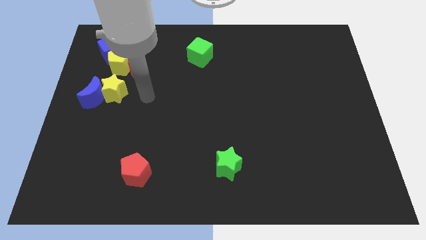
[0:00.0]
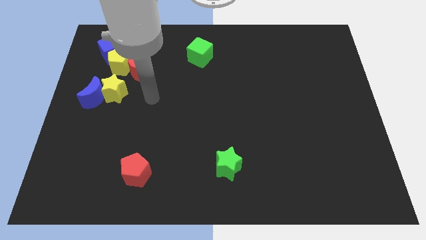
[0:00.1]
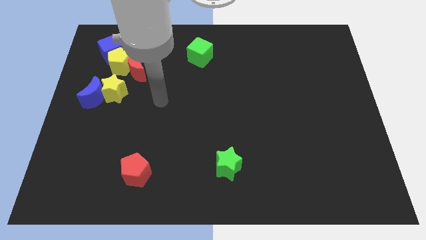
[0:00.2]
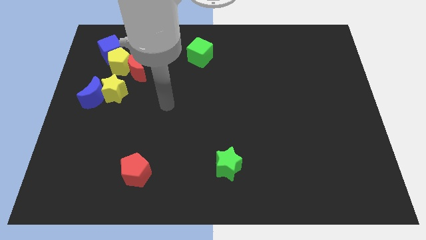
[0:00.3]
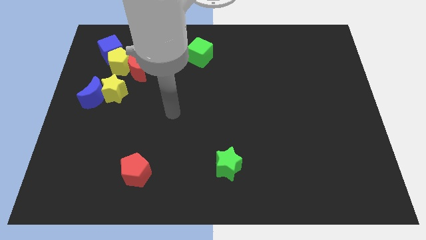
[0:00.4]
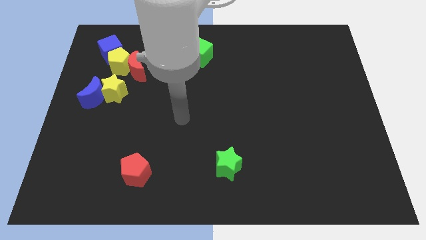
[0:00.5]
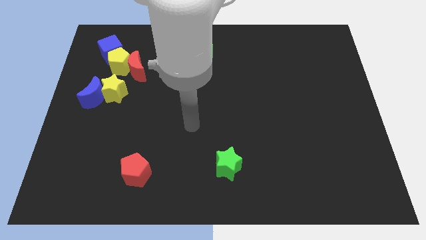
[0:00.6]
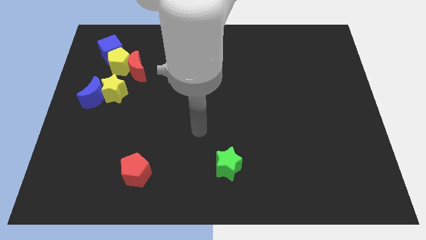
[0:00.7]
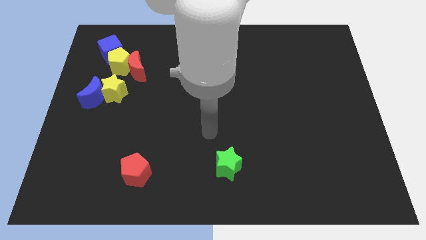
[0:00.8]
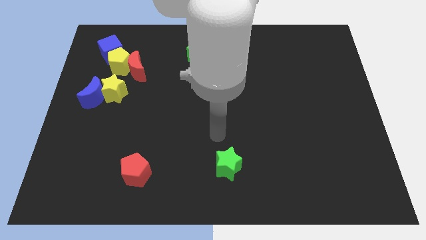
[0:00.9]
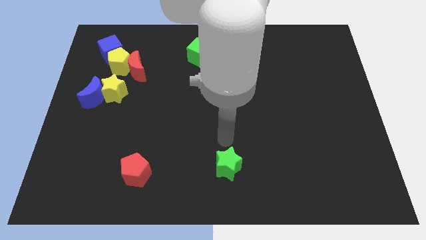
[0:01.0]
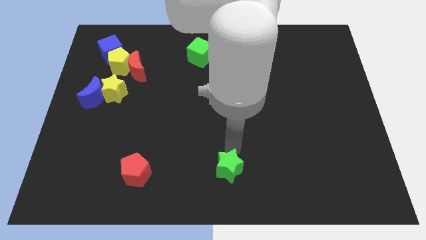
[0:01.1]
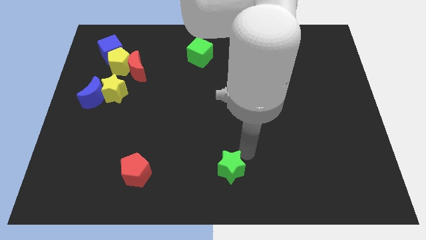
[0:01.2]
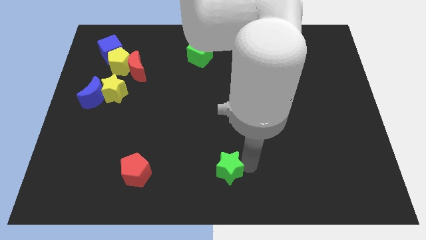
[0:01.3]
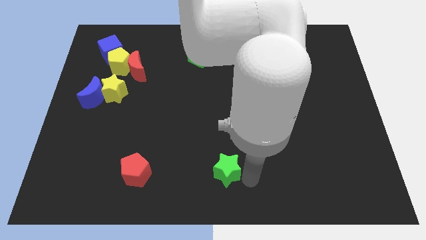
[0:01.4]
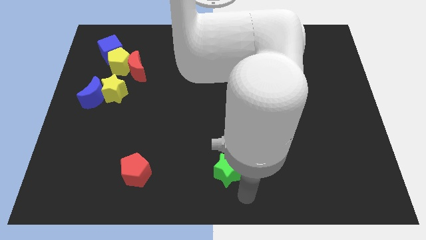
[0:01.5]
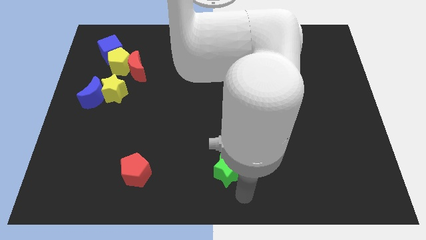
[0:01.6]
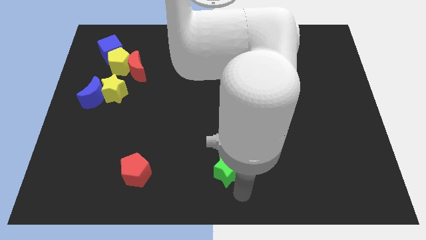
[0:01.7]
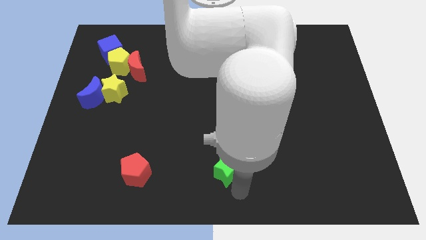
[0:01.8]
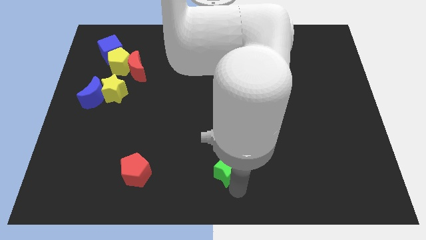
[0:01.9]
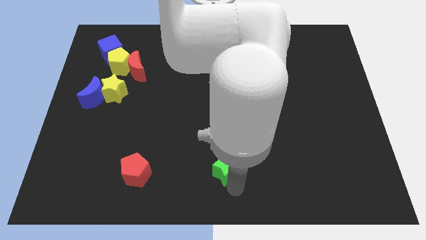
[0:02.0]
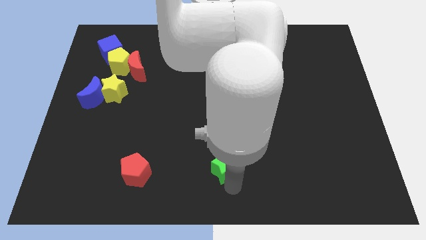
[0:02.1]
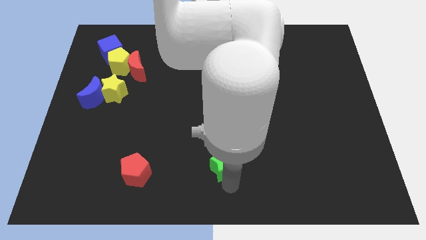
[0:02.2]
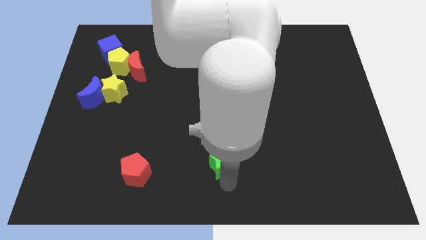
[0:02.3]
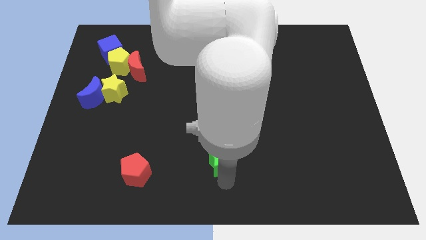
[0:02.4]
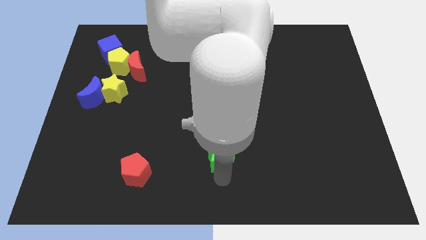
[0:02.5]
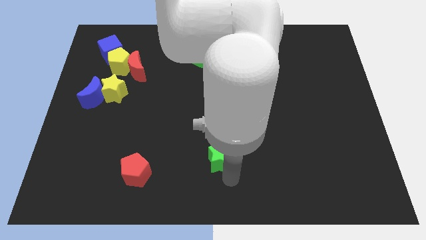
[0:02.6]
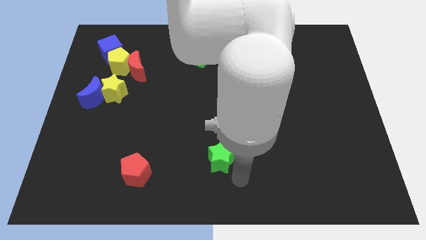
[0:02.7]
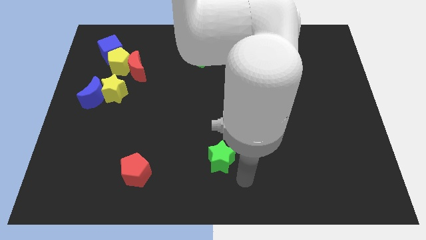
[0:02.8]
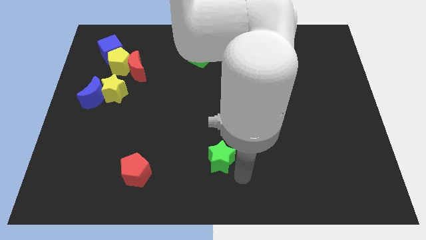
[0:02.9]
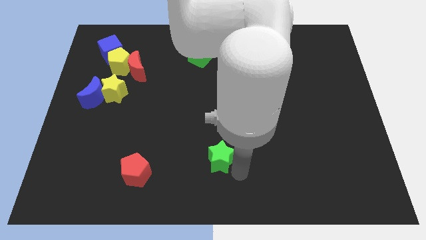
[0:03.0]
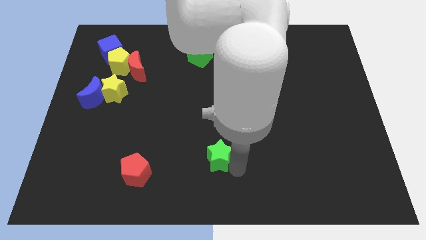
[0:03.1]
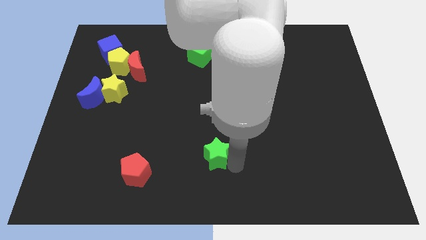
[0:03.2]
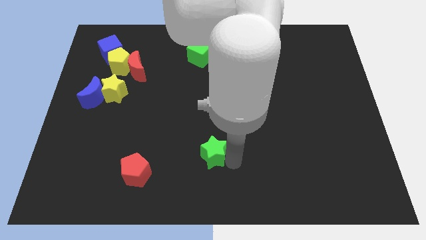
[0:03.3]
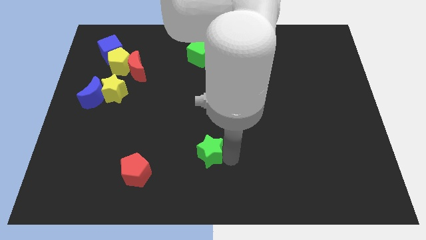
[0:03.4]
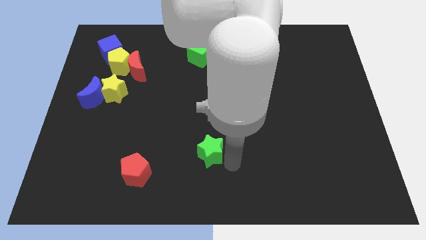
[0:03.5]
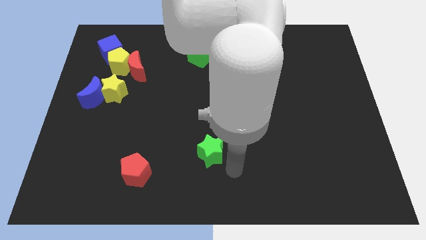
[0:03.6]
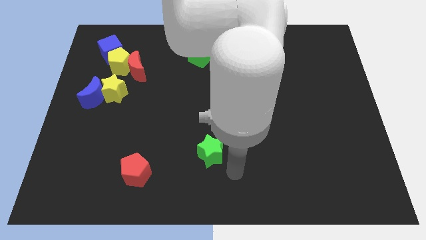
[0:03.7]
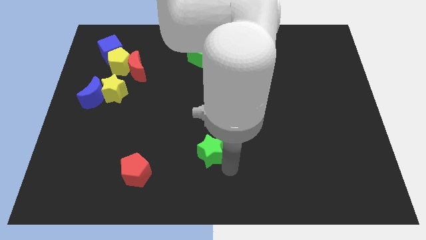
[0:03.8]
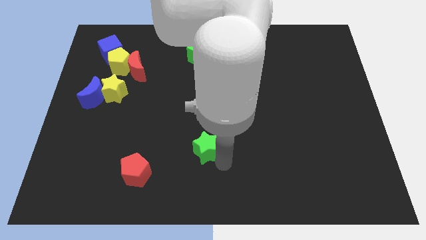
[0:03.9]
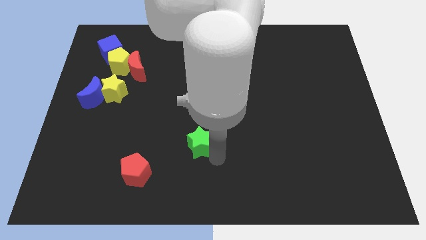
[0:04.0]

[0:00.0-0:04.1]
slide the green star up and left diagonally slightly

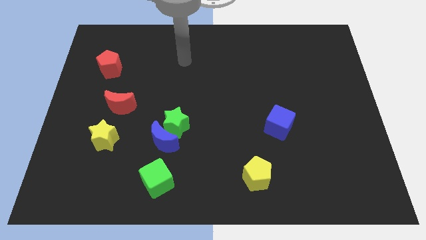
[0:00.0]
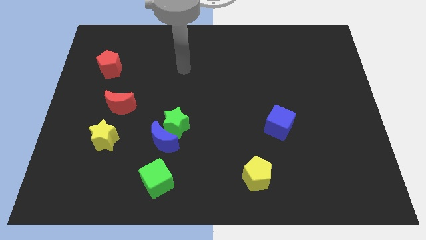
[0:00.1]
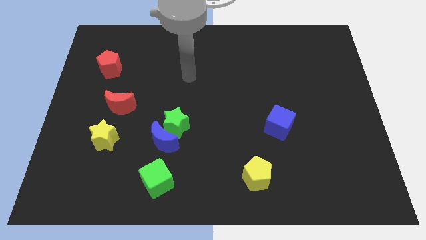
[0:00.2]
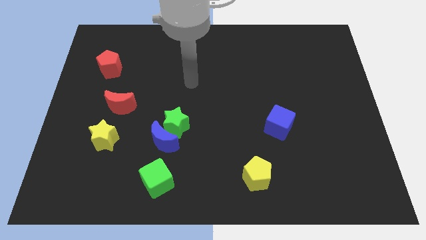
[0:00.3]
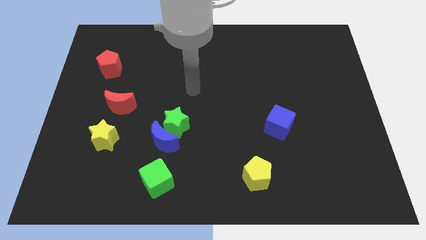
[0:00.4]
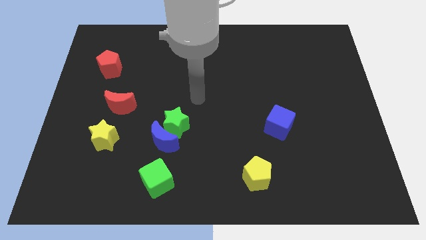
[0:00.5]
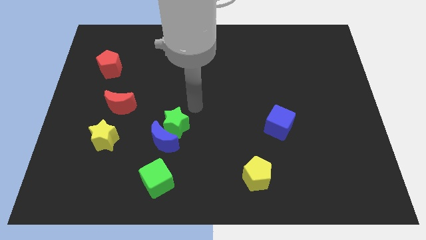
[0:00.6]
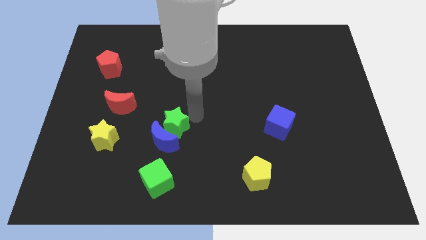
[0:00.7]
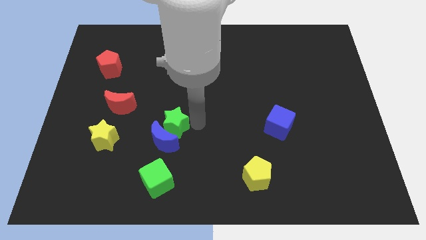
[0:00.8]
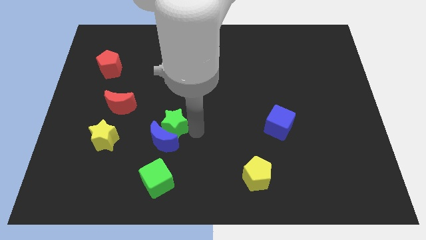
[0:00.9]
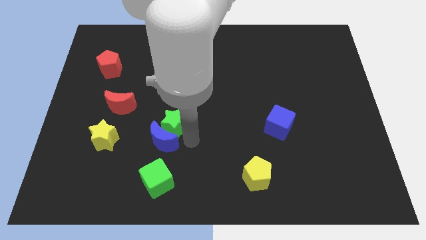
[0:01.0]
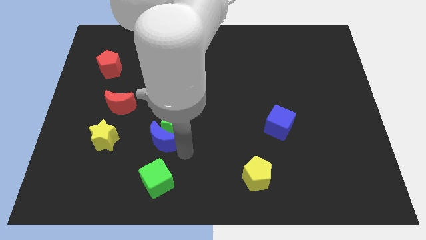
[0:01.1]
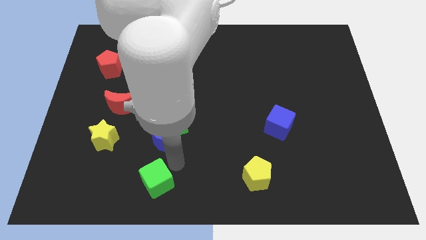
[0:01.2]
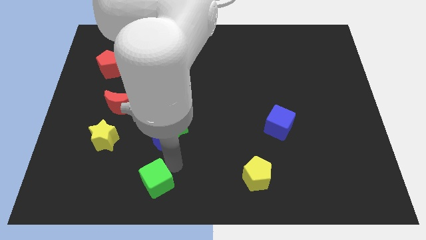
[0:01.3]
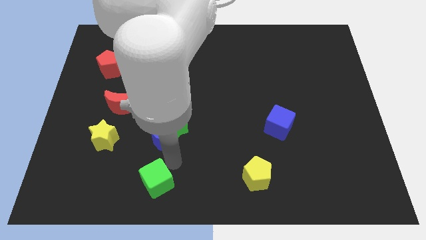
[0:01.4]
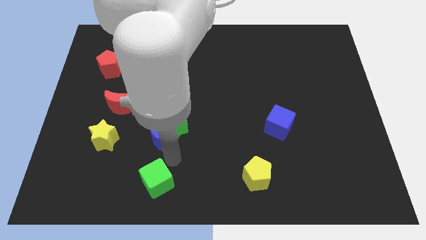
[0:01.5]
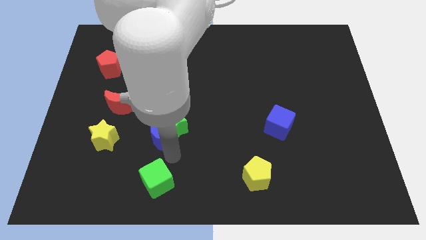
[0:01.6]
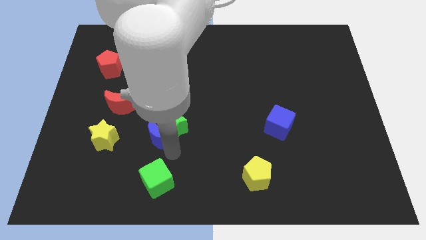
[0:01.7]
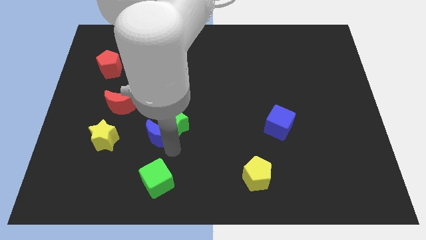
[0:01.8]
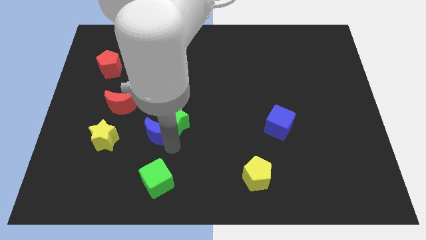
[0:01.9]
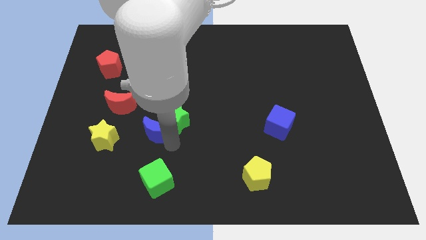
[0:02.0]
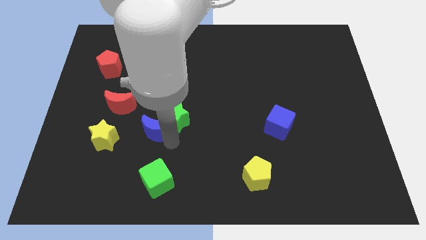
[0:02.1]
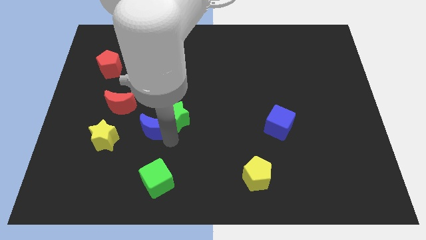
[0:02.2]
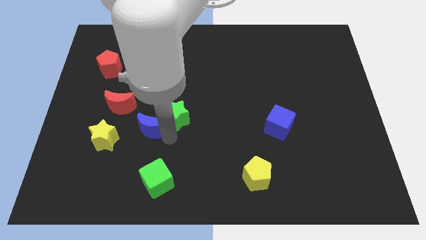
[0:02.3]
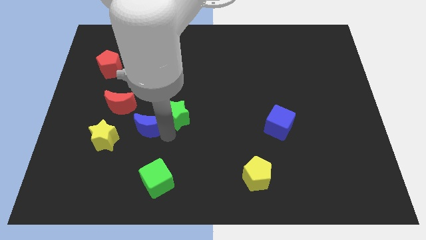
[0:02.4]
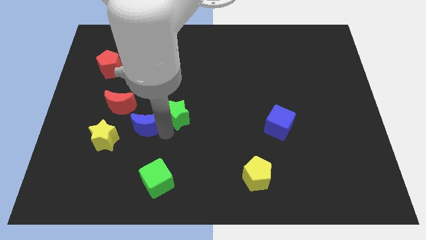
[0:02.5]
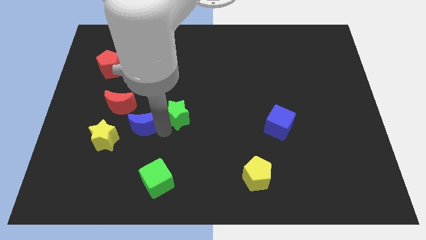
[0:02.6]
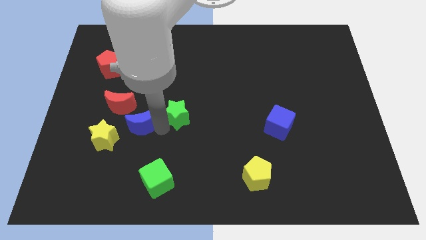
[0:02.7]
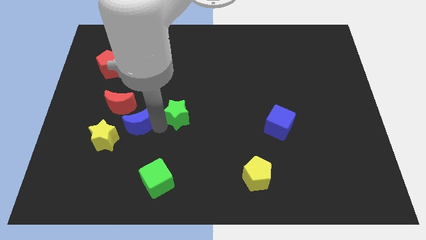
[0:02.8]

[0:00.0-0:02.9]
move the blue moon somewhat upwards and then to the left

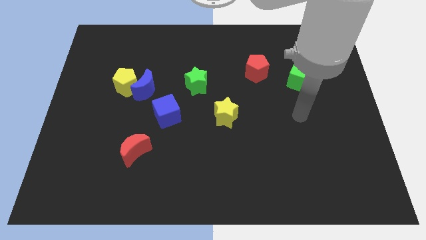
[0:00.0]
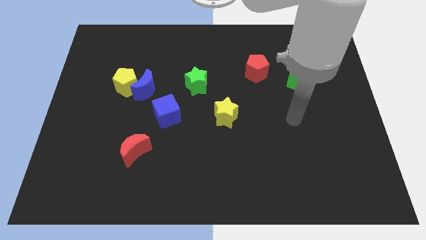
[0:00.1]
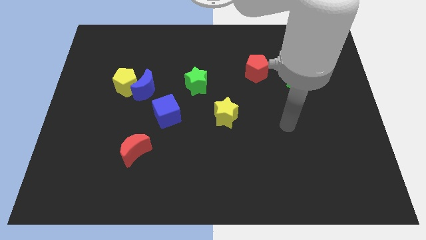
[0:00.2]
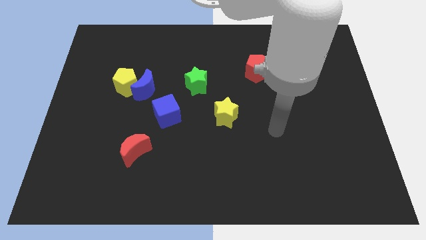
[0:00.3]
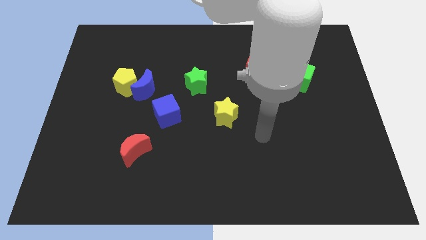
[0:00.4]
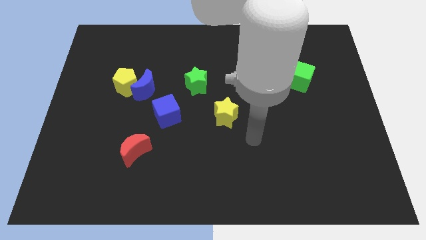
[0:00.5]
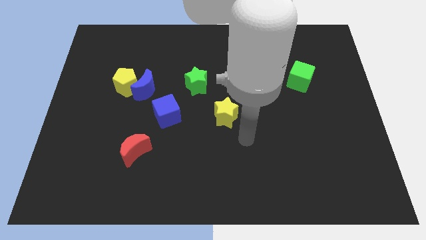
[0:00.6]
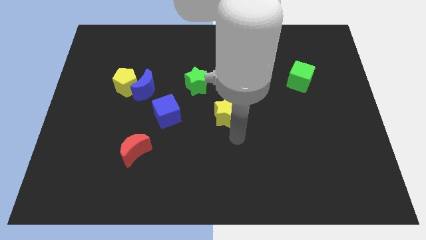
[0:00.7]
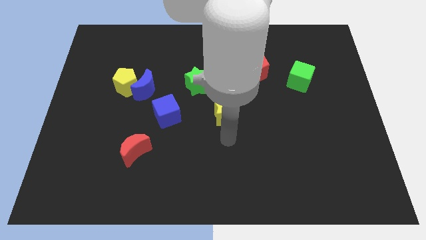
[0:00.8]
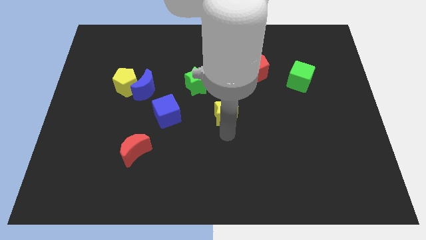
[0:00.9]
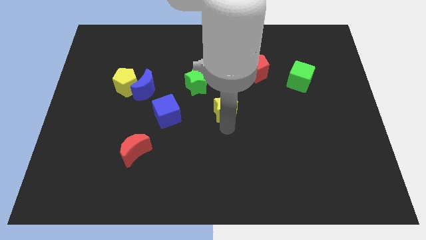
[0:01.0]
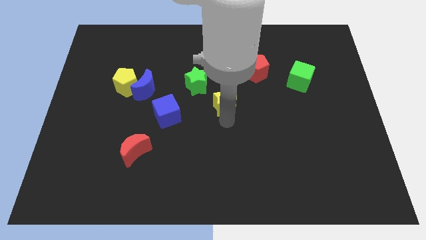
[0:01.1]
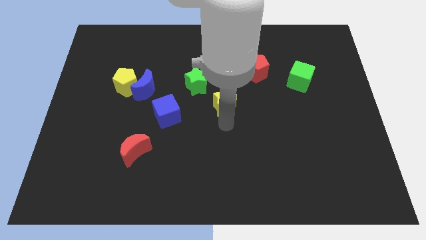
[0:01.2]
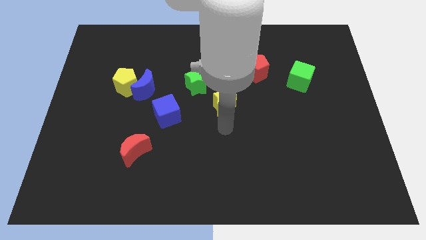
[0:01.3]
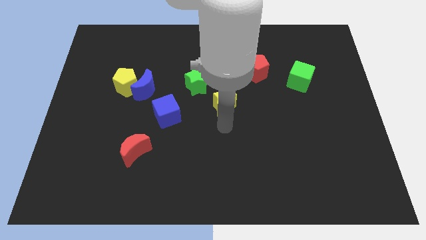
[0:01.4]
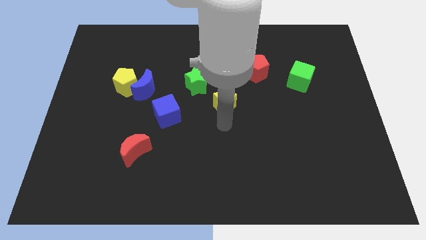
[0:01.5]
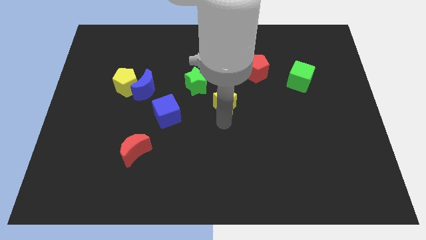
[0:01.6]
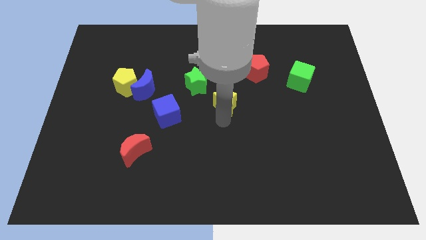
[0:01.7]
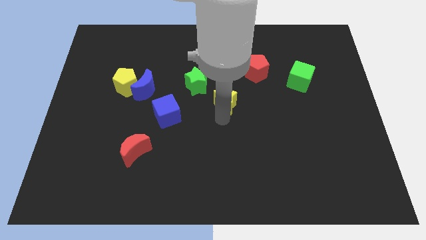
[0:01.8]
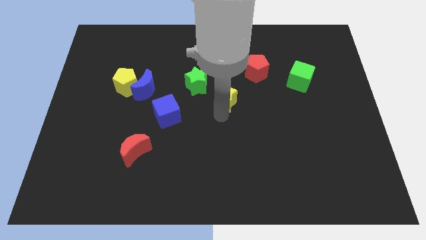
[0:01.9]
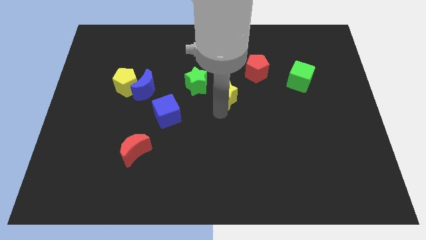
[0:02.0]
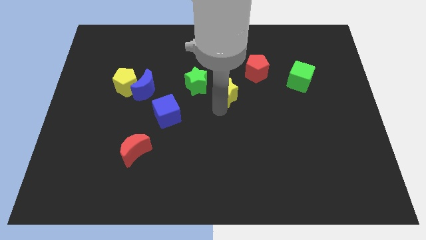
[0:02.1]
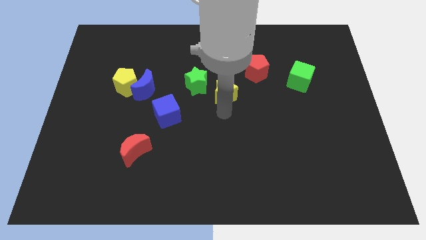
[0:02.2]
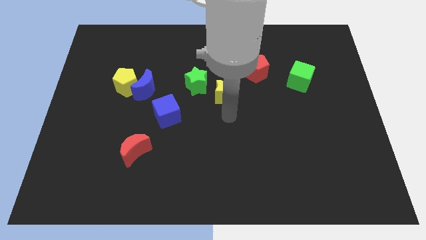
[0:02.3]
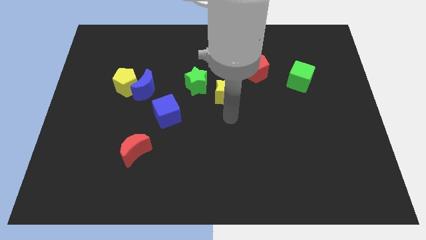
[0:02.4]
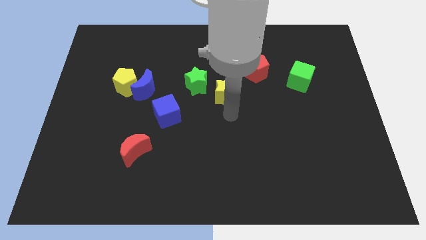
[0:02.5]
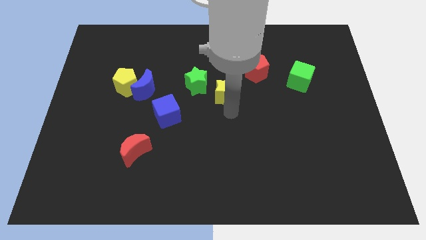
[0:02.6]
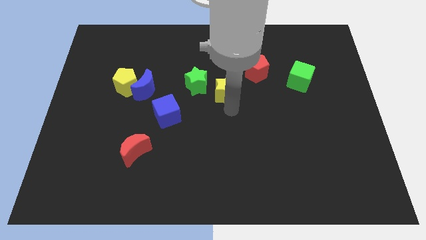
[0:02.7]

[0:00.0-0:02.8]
slightly push the yellow star up
